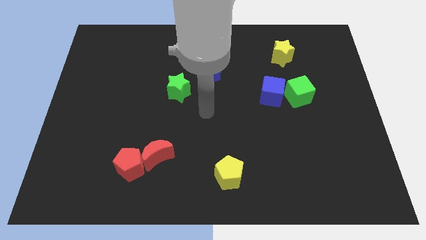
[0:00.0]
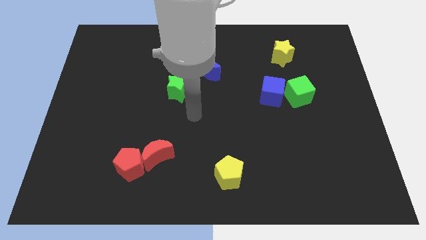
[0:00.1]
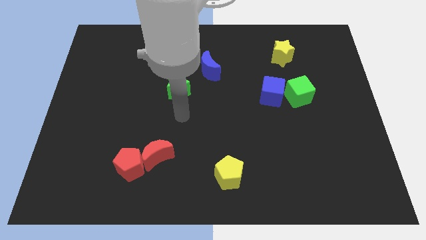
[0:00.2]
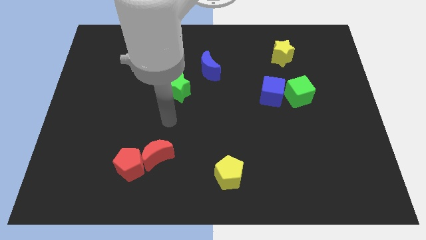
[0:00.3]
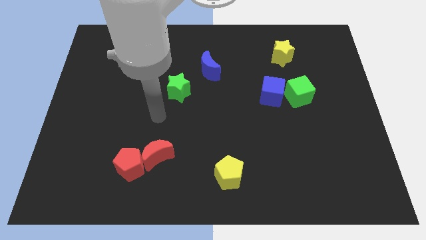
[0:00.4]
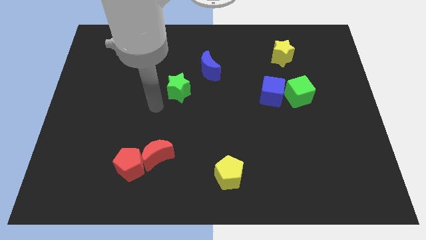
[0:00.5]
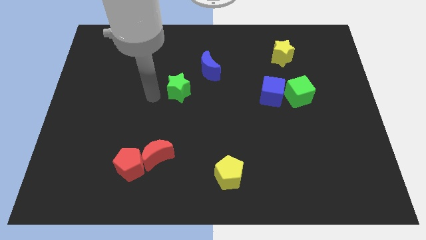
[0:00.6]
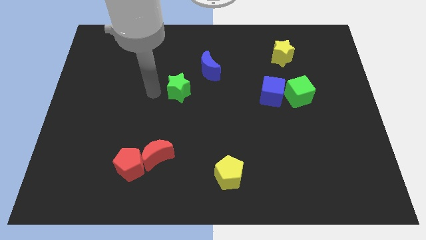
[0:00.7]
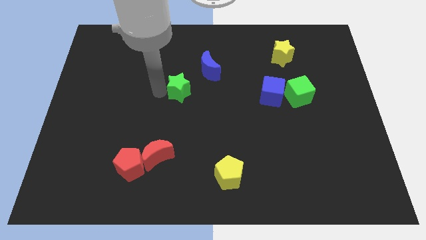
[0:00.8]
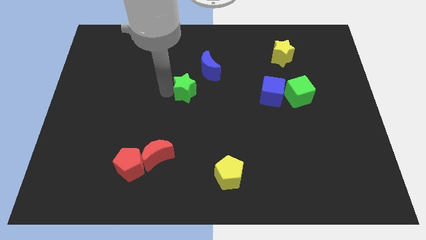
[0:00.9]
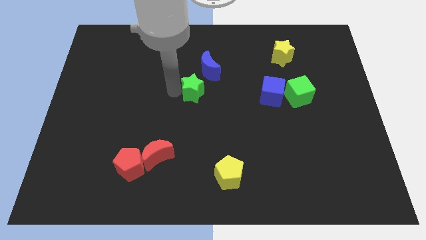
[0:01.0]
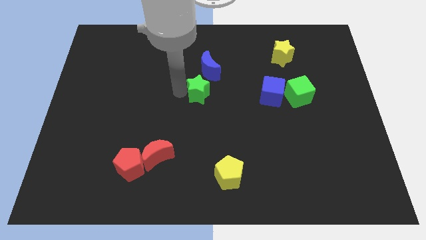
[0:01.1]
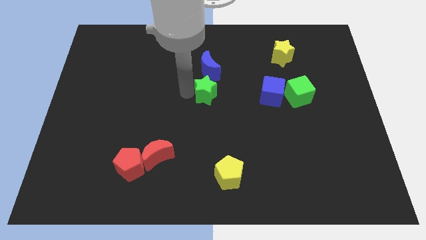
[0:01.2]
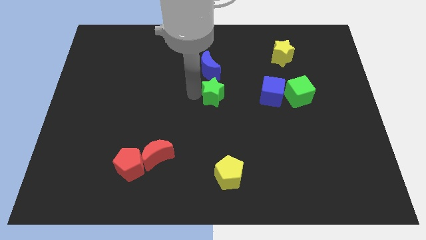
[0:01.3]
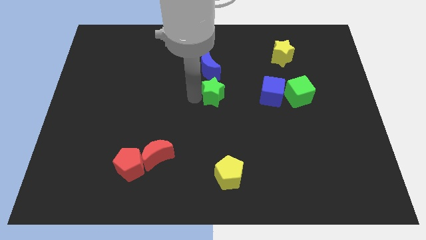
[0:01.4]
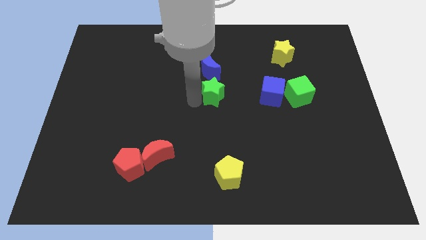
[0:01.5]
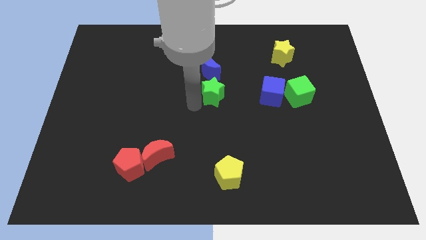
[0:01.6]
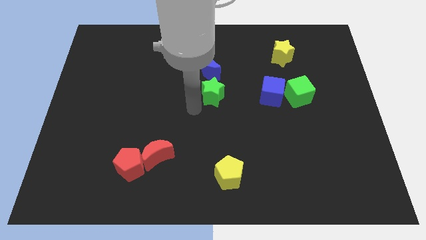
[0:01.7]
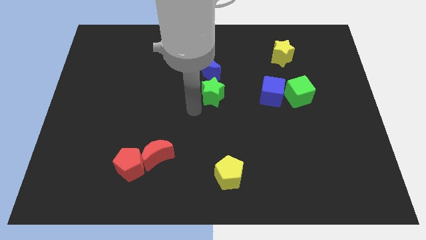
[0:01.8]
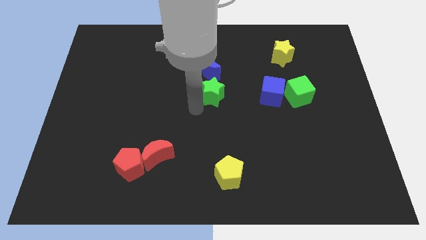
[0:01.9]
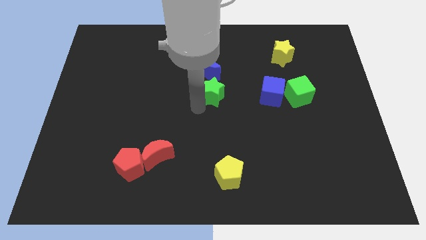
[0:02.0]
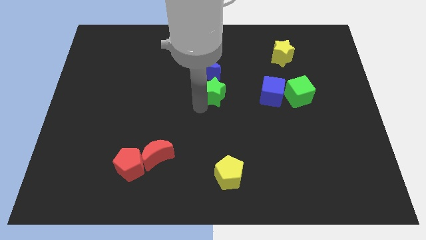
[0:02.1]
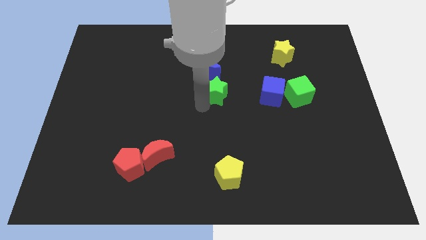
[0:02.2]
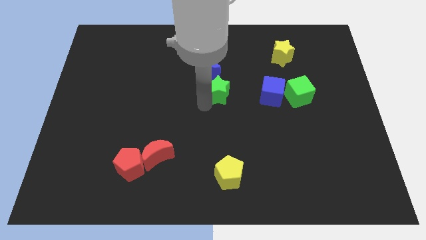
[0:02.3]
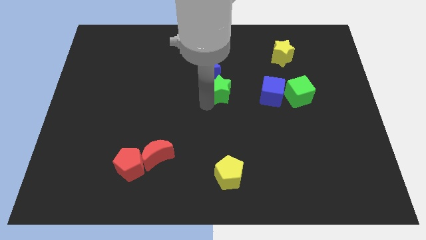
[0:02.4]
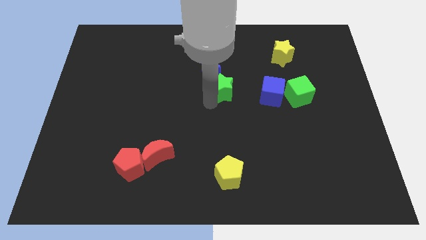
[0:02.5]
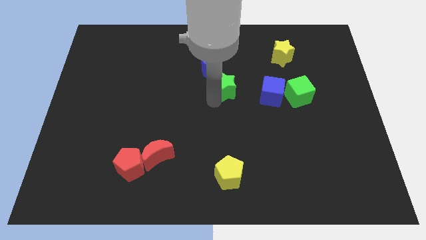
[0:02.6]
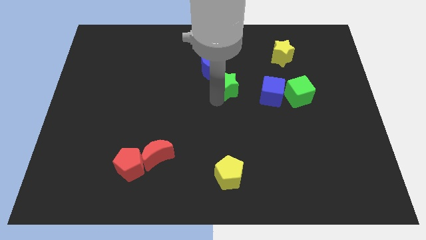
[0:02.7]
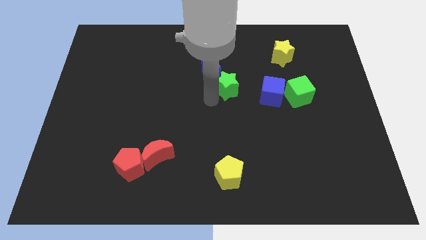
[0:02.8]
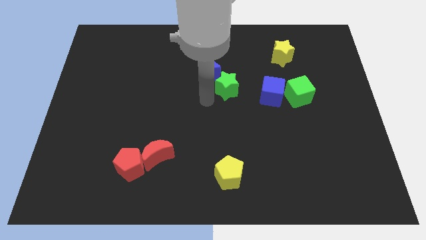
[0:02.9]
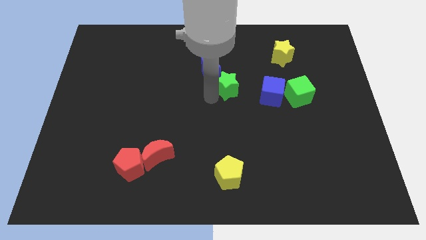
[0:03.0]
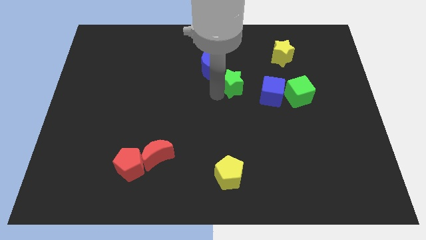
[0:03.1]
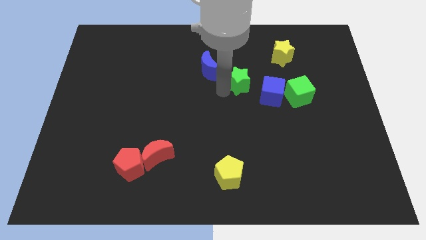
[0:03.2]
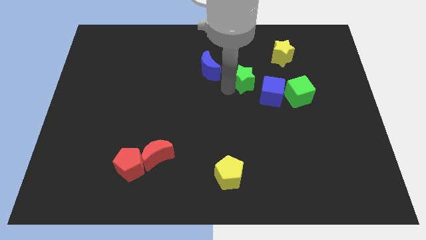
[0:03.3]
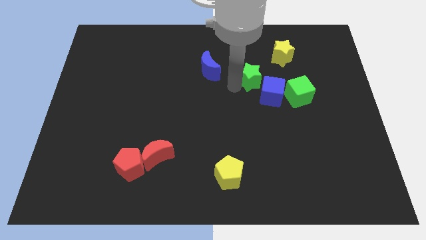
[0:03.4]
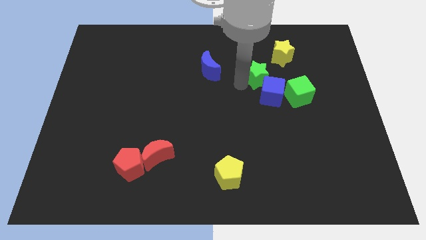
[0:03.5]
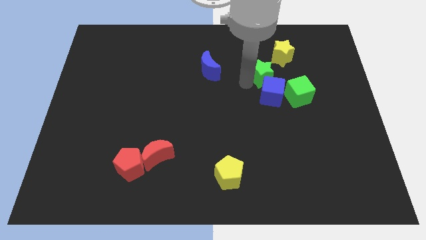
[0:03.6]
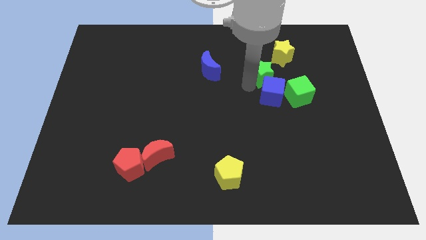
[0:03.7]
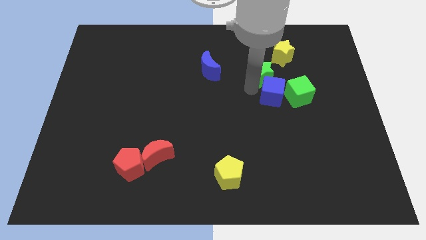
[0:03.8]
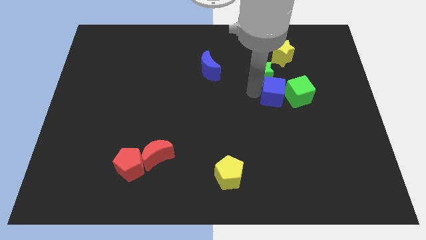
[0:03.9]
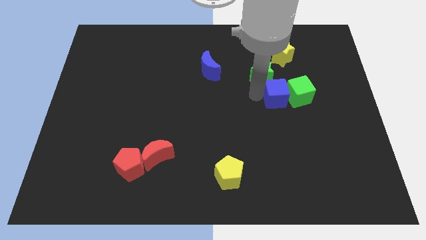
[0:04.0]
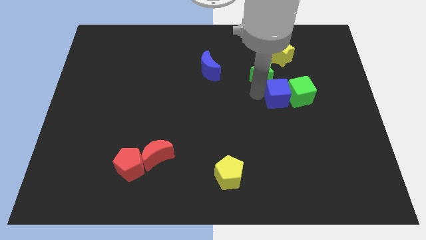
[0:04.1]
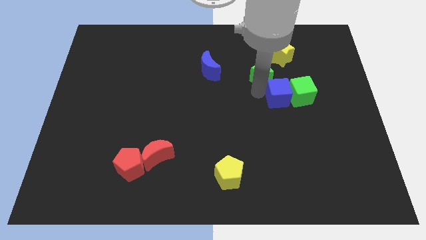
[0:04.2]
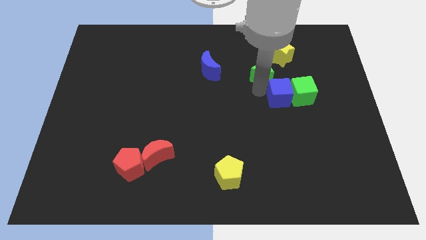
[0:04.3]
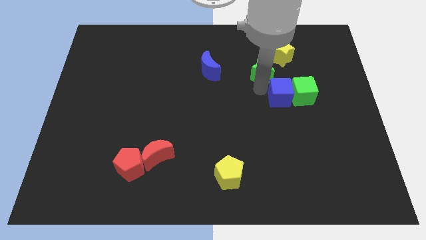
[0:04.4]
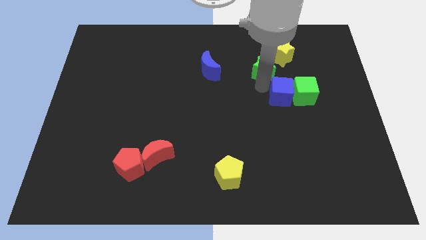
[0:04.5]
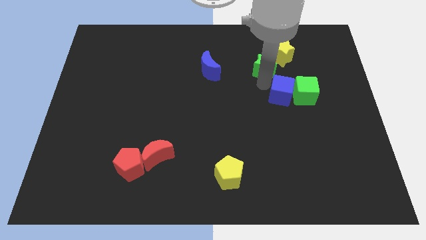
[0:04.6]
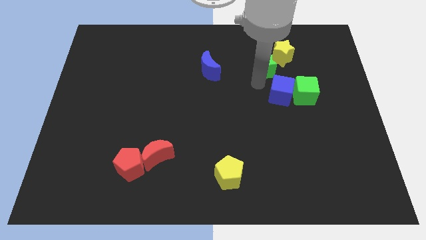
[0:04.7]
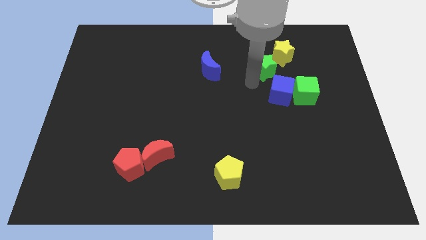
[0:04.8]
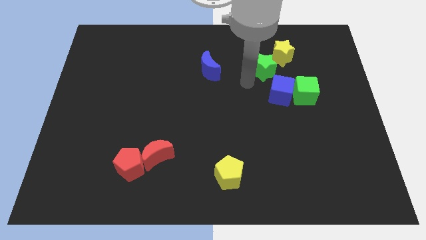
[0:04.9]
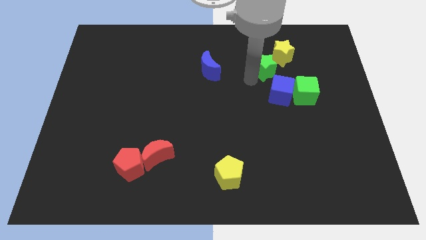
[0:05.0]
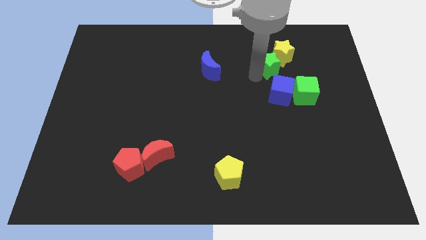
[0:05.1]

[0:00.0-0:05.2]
slide the green star close to the yellow star

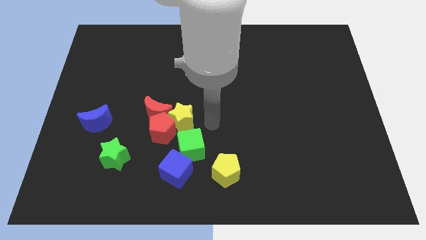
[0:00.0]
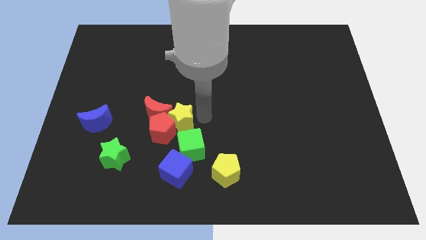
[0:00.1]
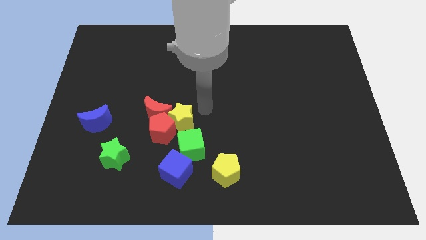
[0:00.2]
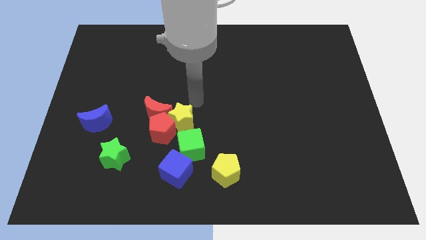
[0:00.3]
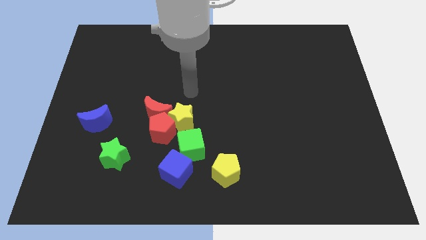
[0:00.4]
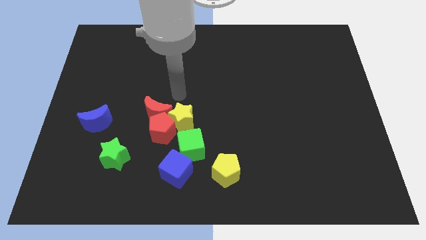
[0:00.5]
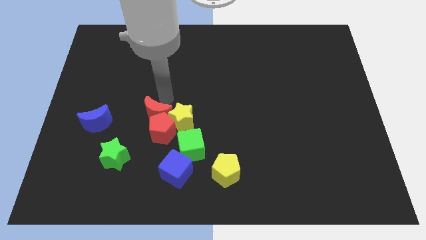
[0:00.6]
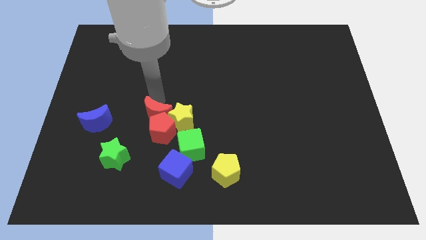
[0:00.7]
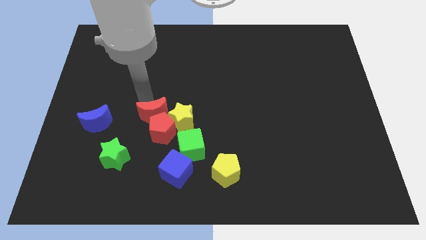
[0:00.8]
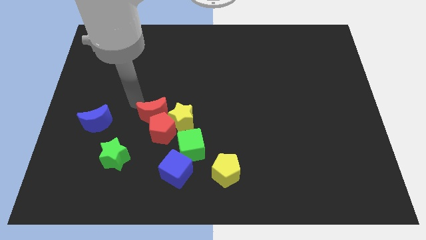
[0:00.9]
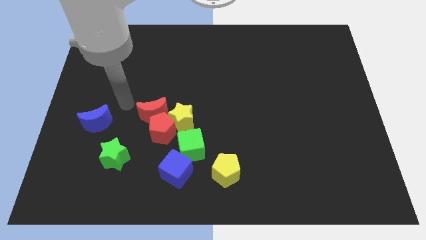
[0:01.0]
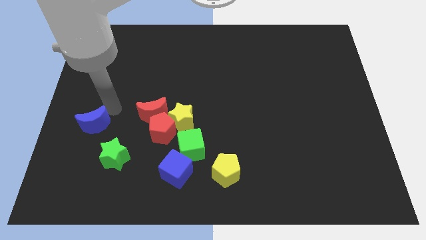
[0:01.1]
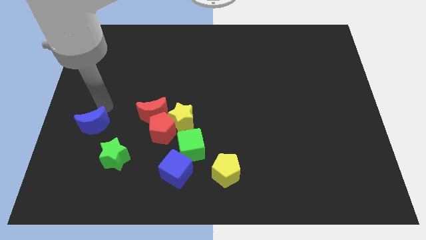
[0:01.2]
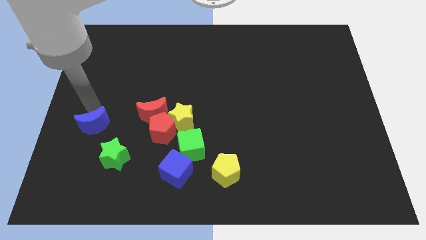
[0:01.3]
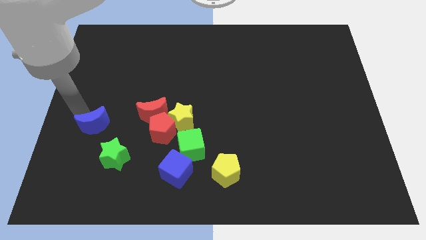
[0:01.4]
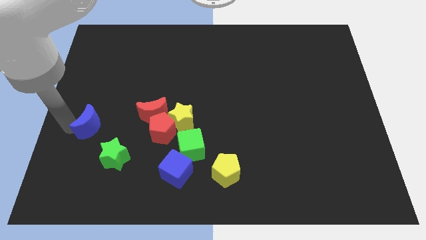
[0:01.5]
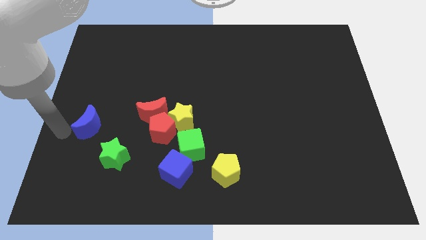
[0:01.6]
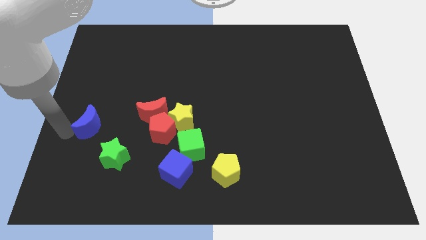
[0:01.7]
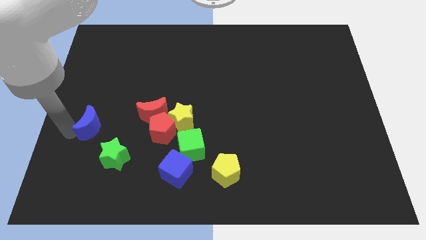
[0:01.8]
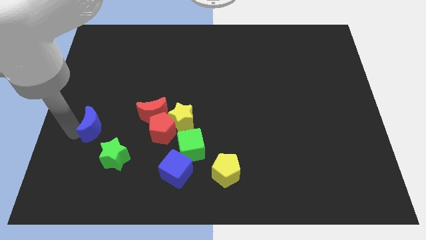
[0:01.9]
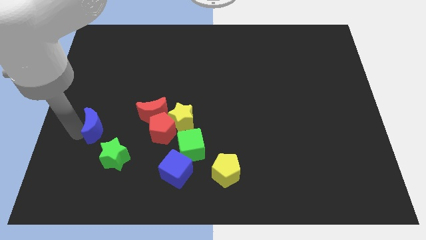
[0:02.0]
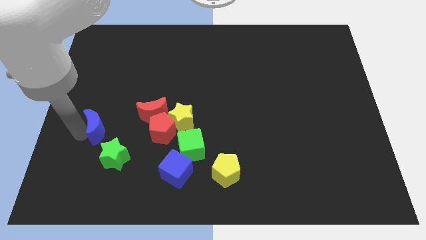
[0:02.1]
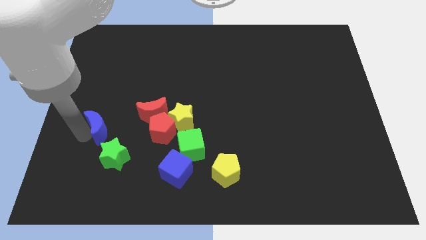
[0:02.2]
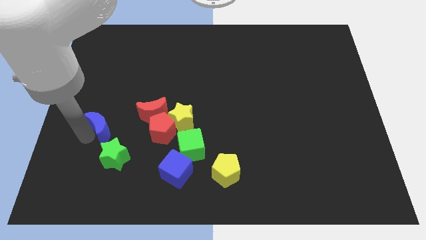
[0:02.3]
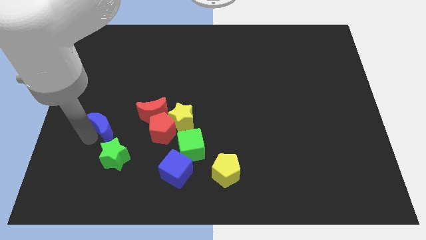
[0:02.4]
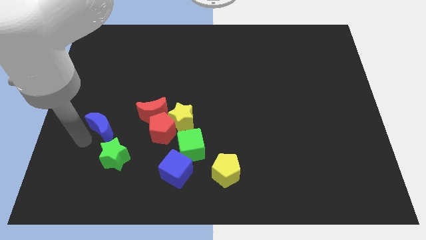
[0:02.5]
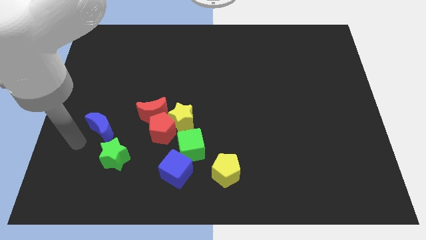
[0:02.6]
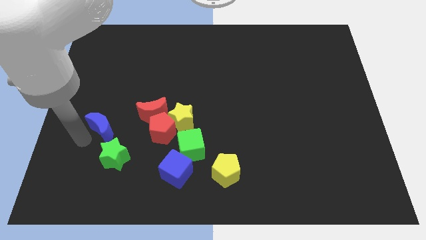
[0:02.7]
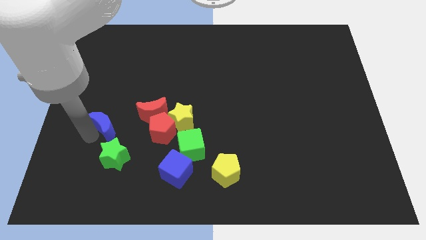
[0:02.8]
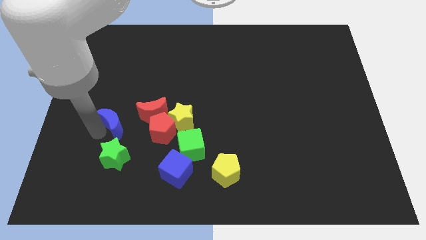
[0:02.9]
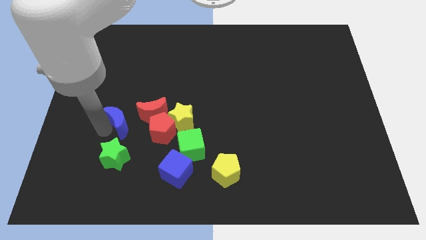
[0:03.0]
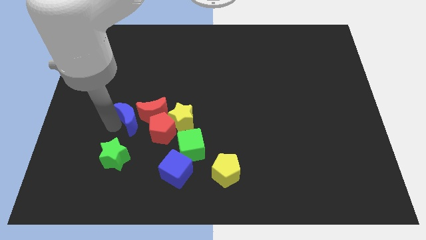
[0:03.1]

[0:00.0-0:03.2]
slide the blue moon to the red moon
